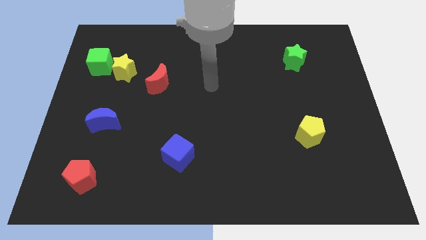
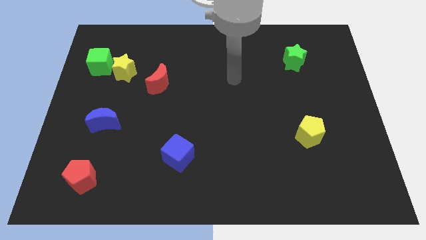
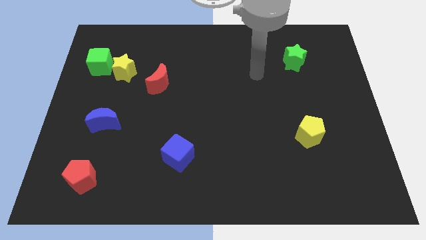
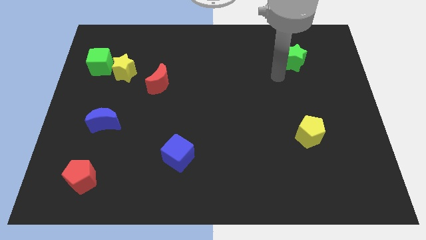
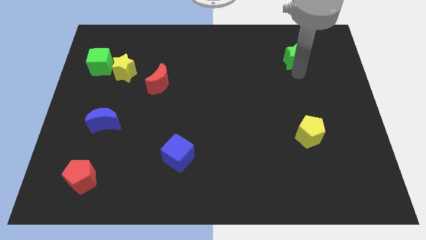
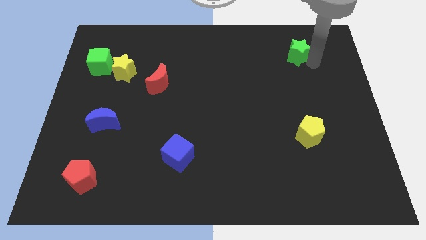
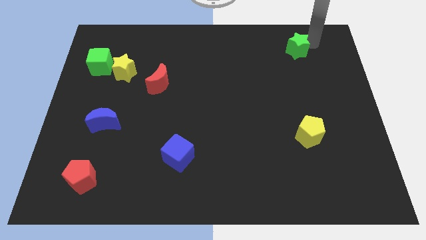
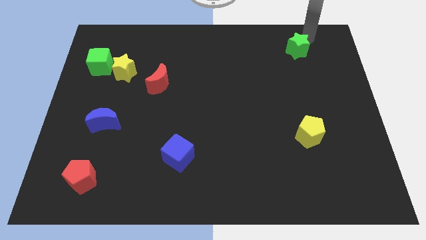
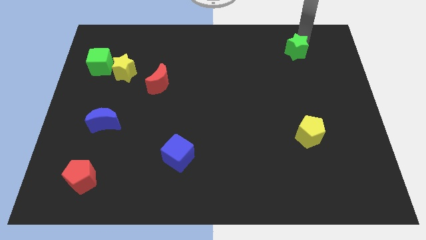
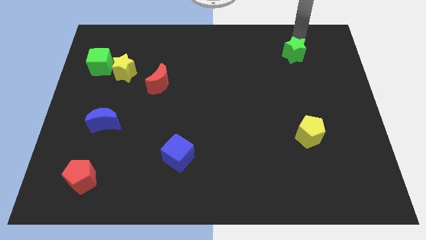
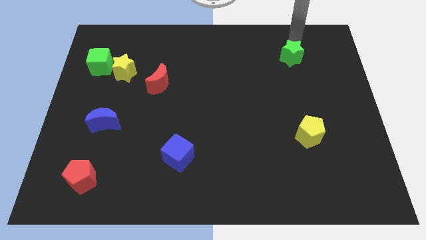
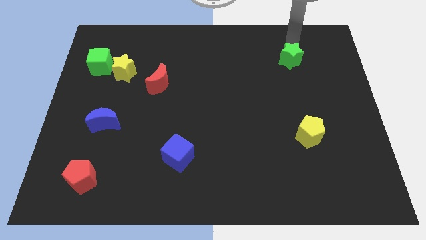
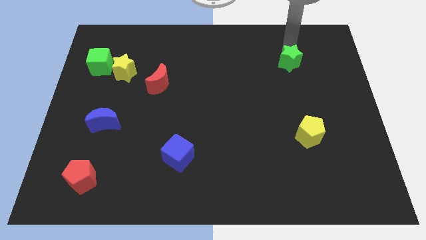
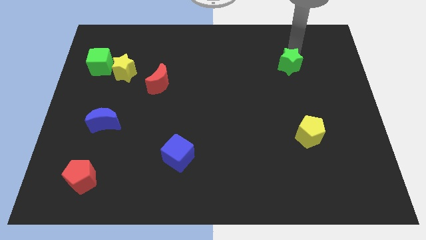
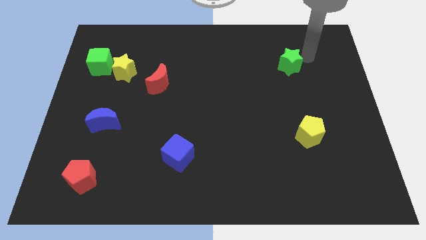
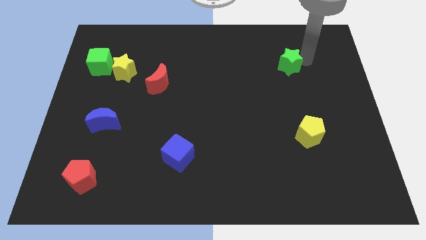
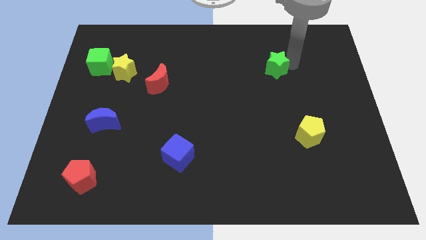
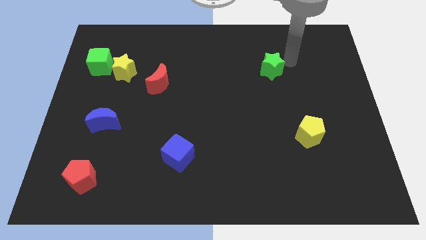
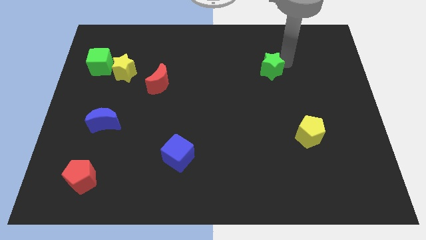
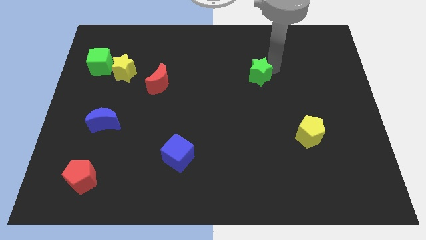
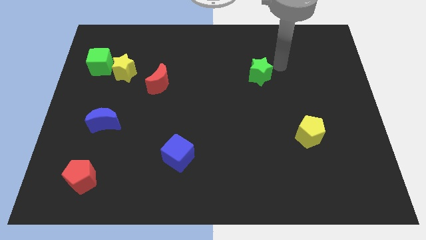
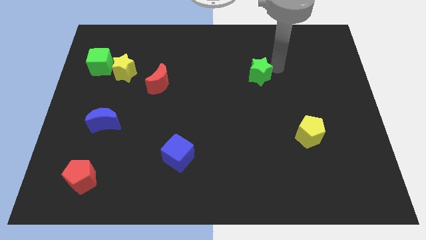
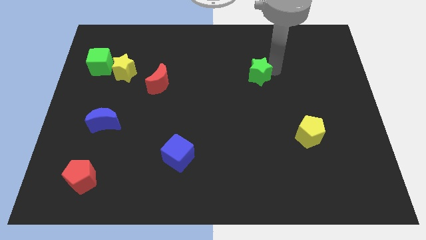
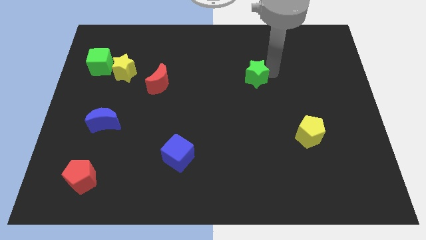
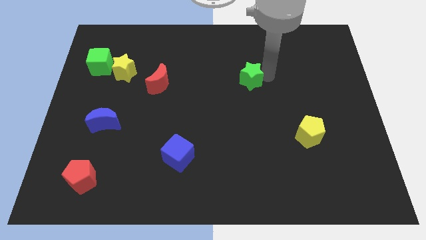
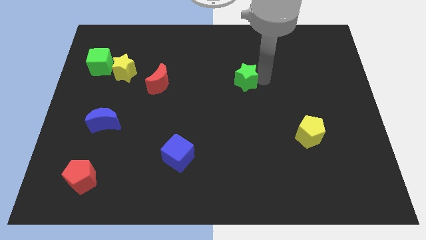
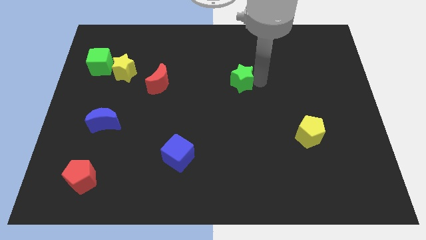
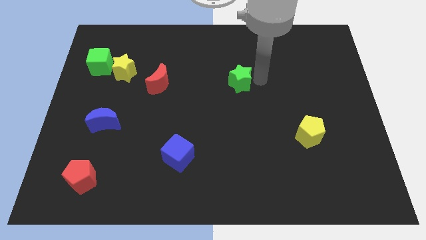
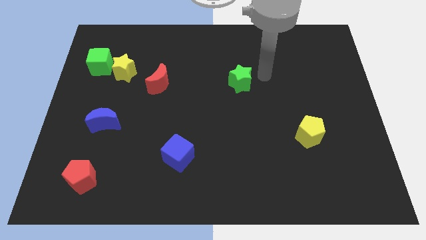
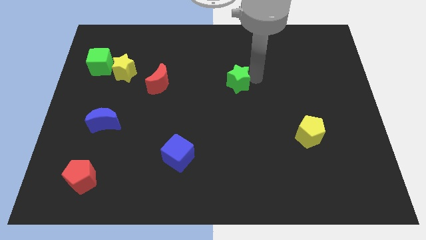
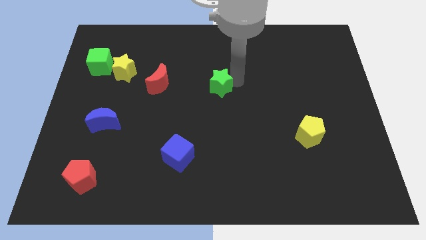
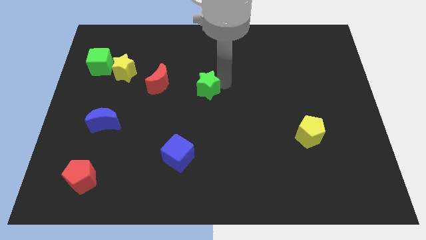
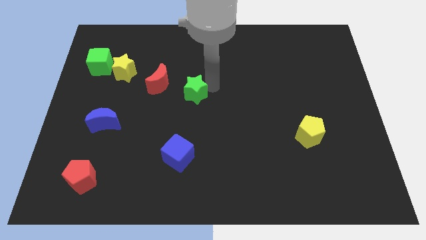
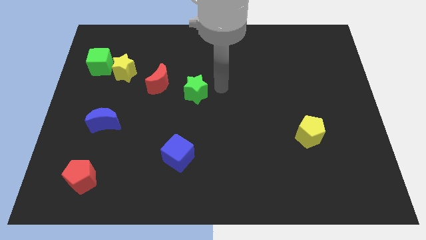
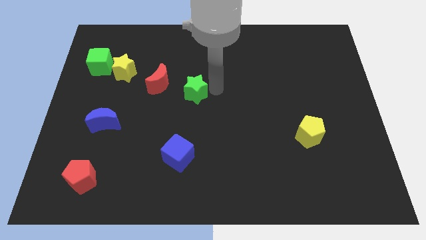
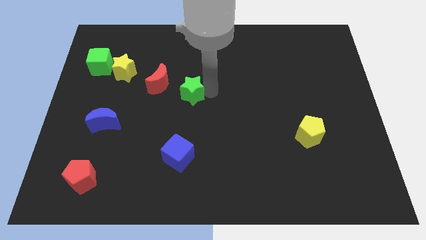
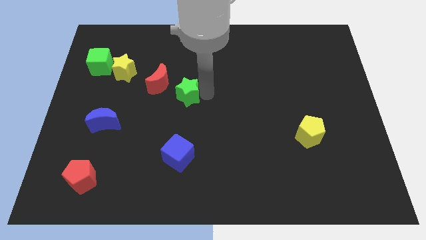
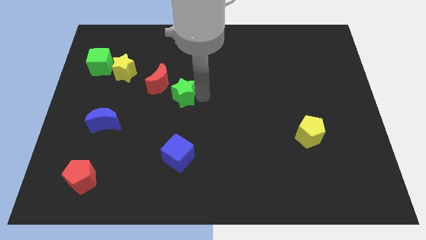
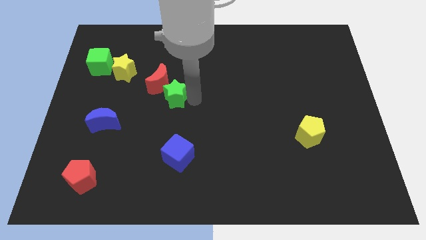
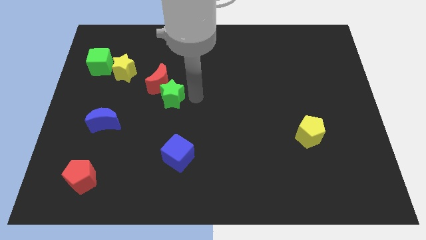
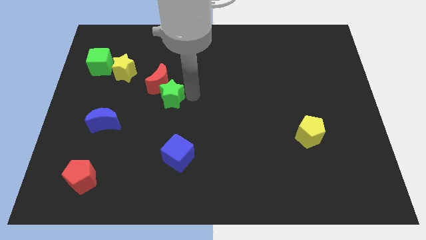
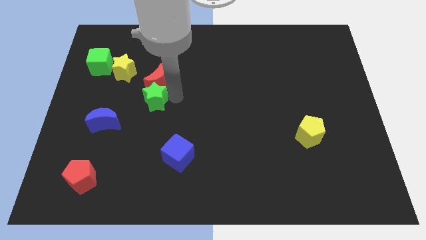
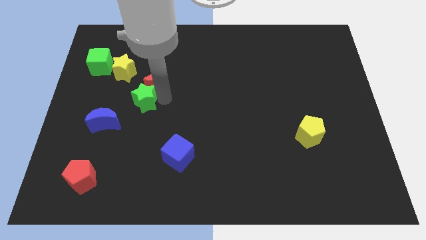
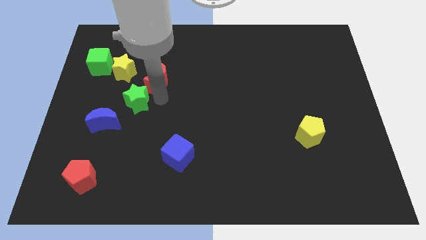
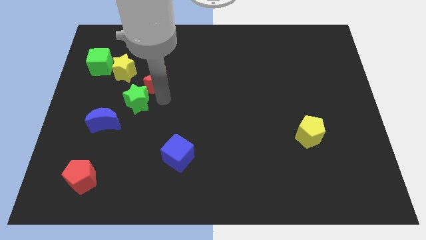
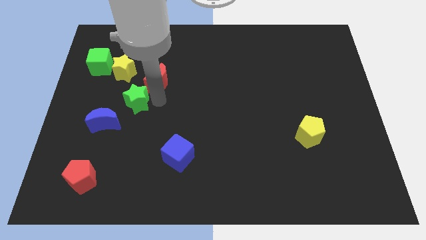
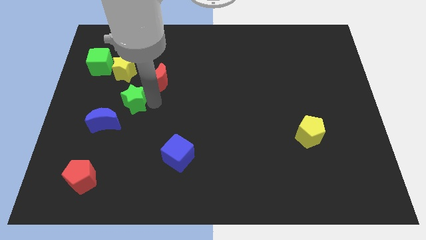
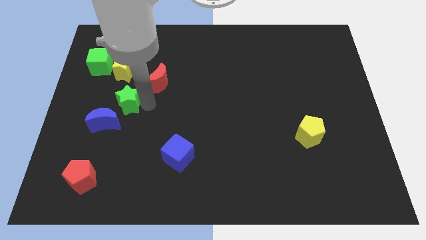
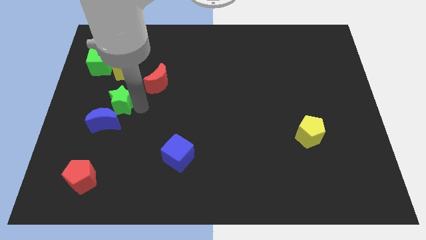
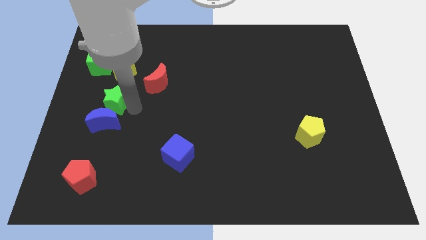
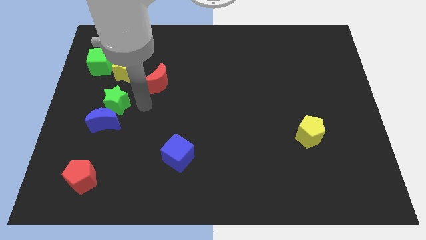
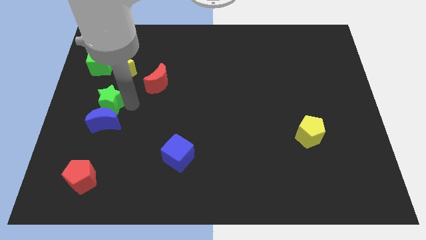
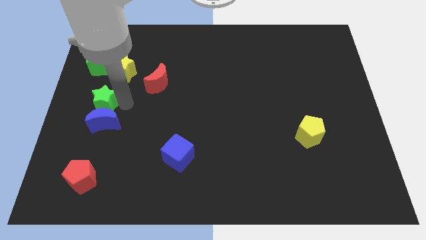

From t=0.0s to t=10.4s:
move the green star to the left side of the board

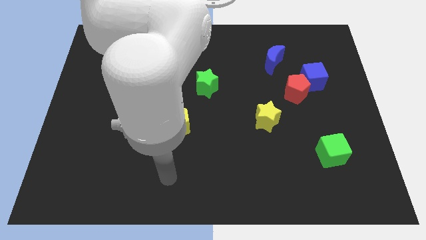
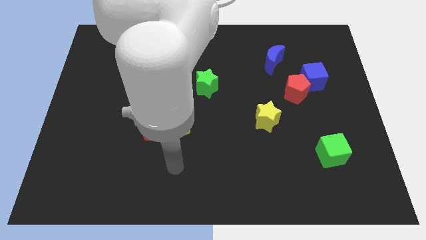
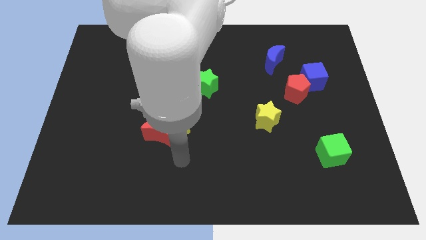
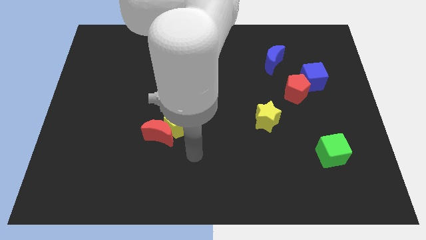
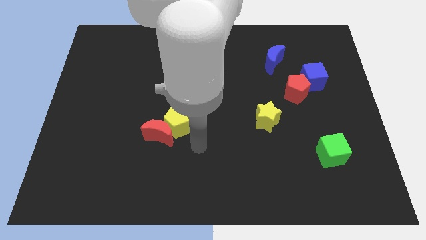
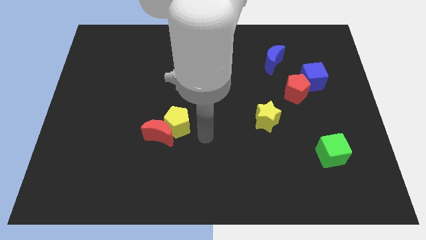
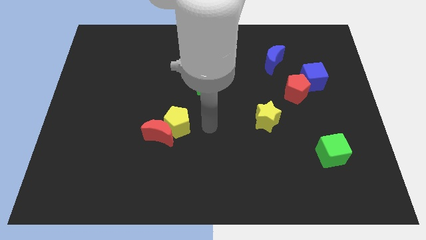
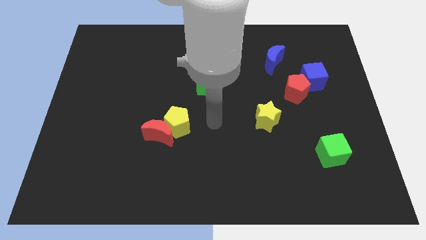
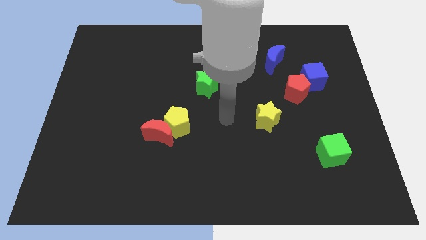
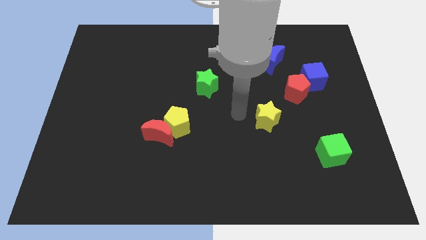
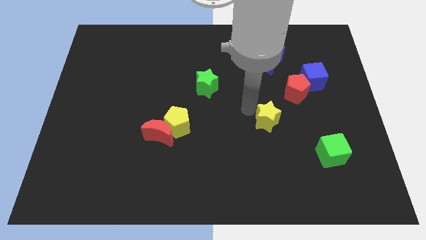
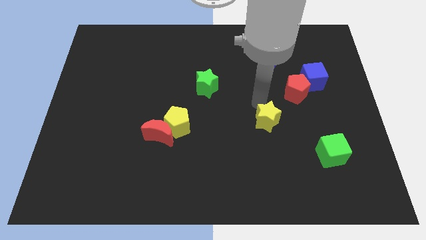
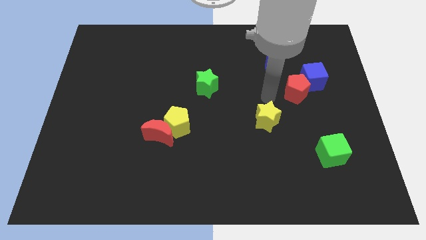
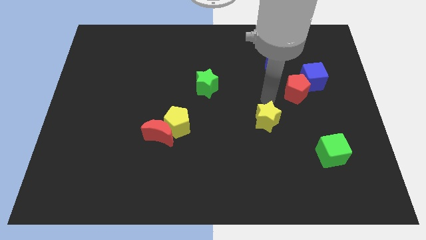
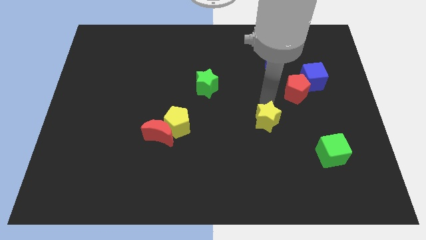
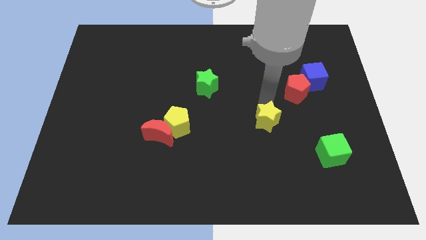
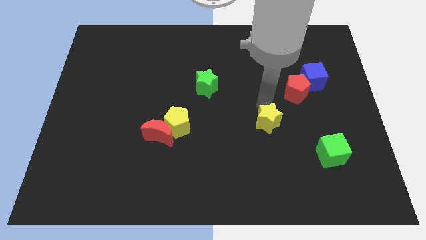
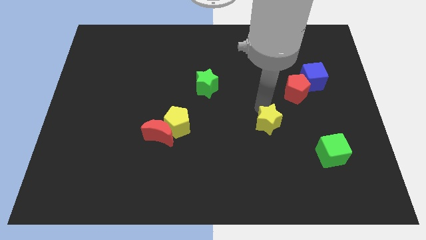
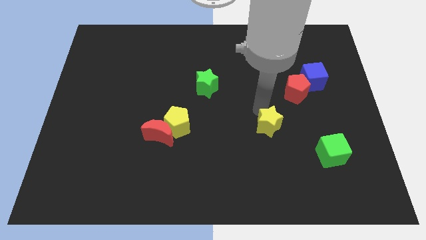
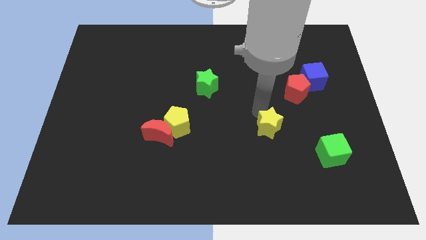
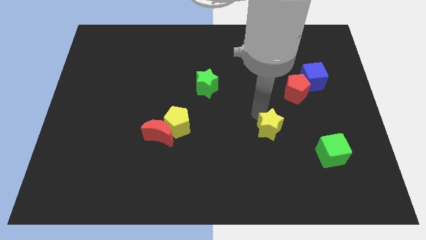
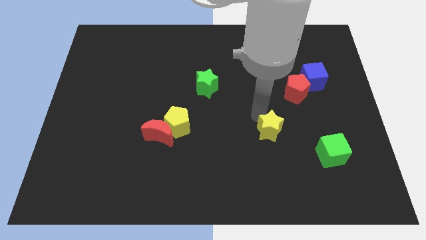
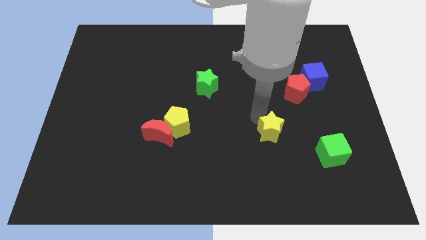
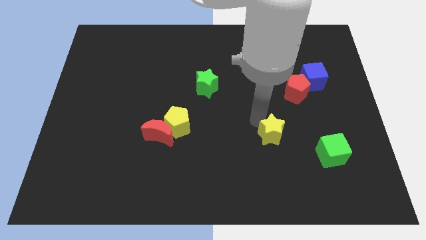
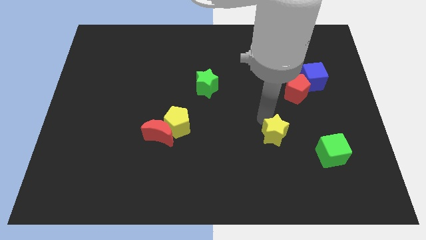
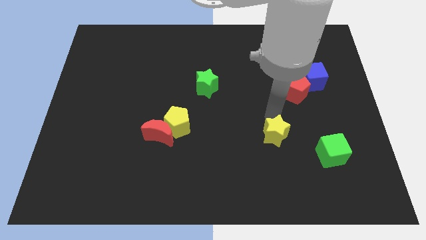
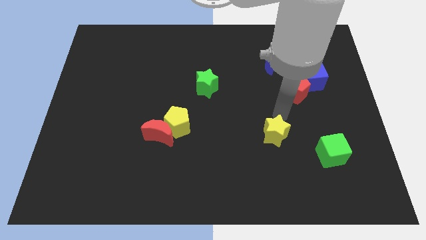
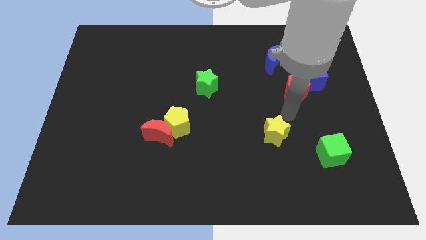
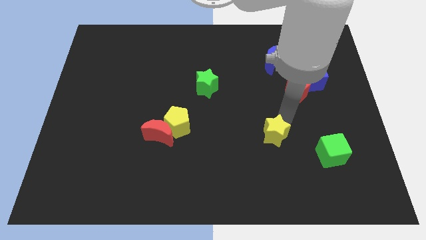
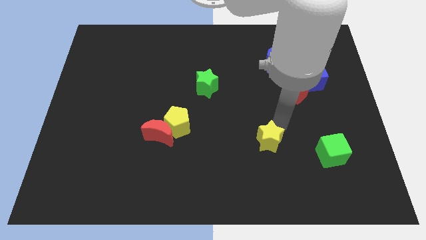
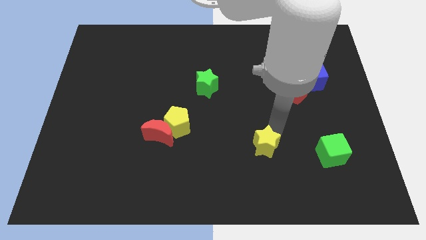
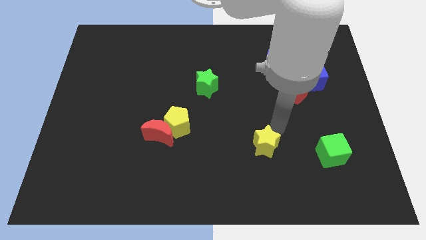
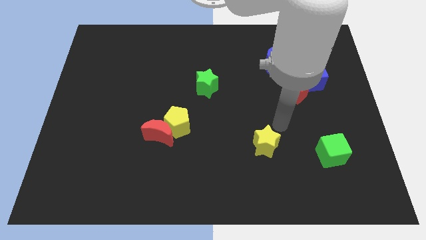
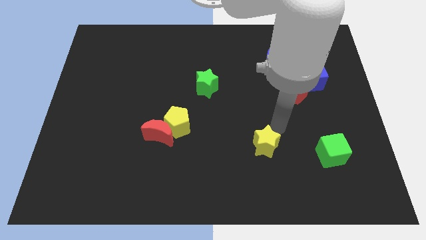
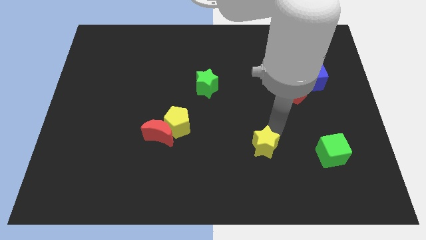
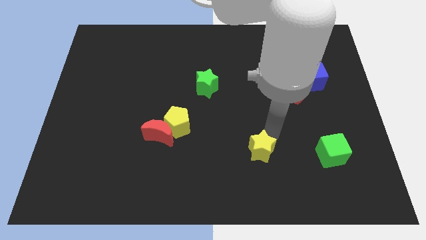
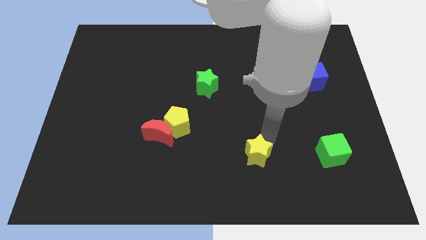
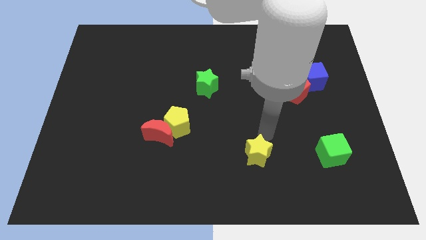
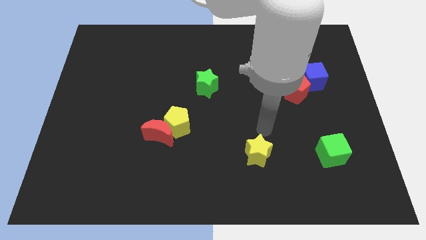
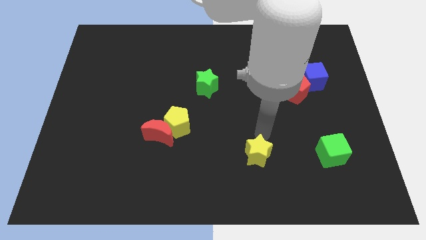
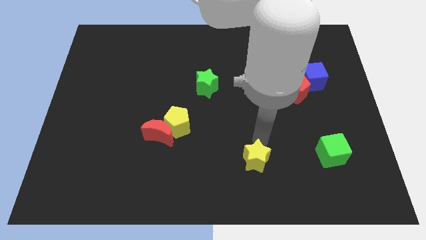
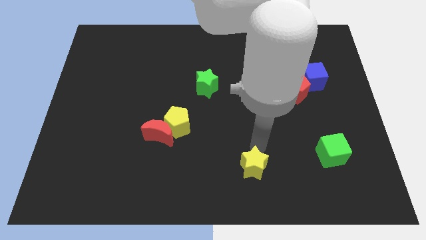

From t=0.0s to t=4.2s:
slide the yellow star to the bottom
